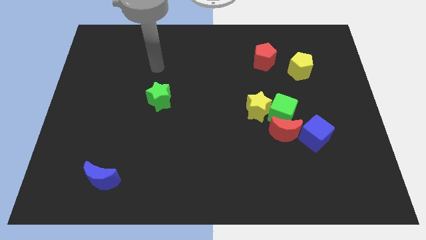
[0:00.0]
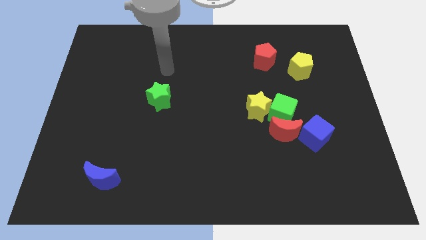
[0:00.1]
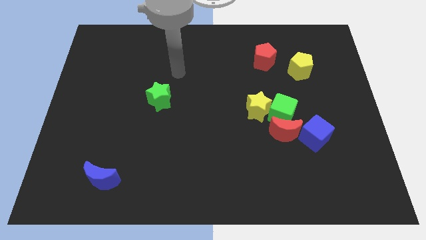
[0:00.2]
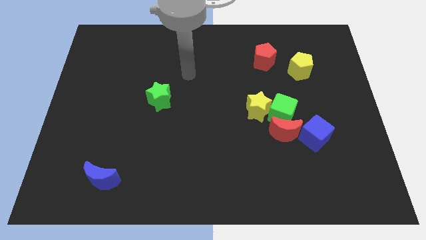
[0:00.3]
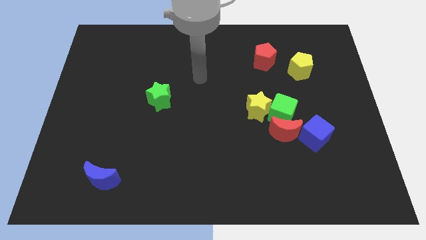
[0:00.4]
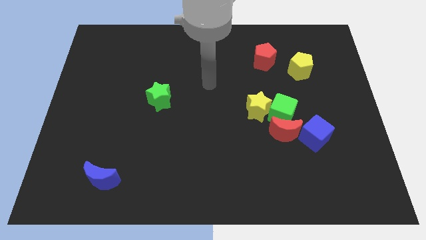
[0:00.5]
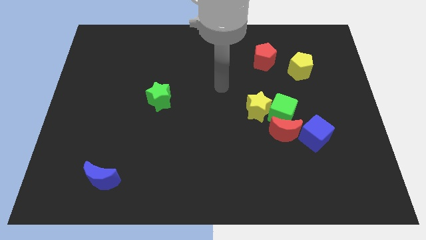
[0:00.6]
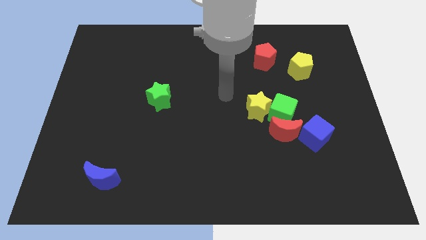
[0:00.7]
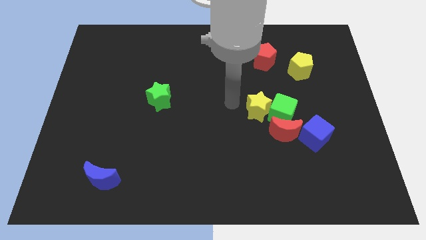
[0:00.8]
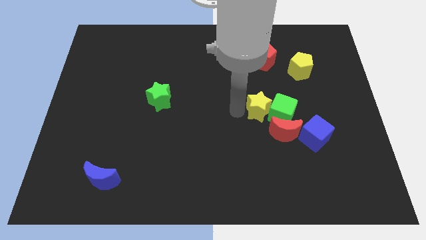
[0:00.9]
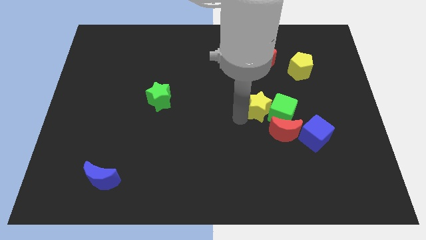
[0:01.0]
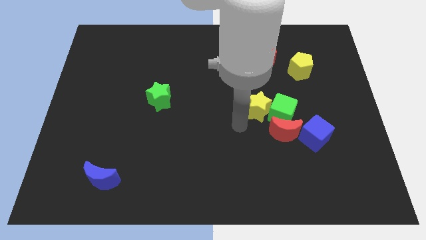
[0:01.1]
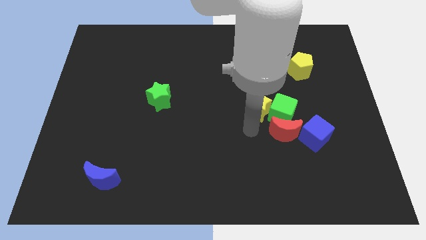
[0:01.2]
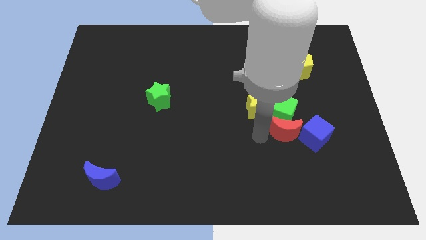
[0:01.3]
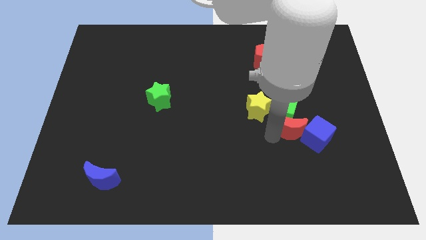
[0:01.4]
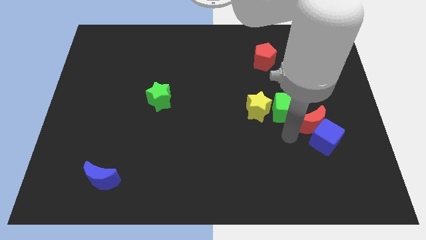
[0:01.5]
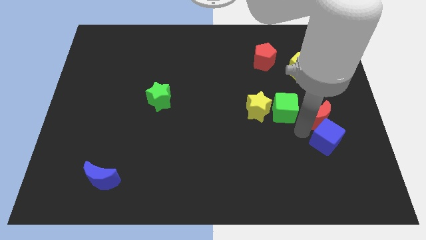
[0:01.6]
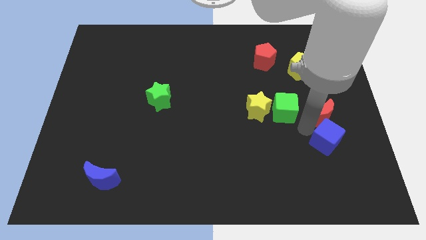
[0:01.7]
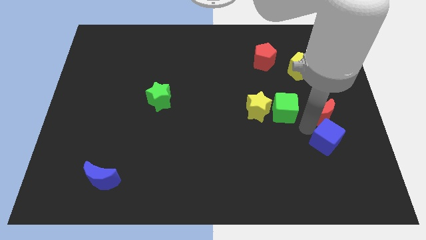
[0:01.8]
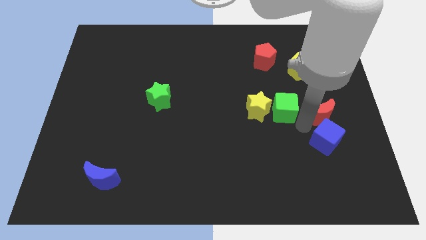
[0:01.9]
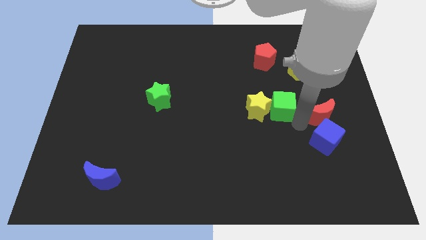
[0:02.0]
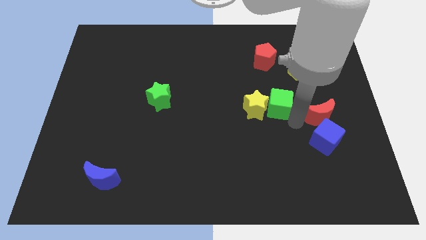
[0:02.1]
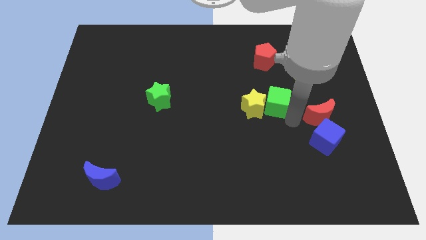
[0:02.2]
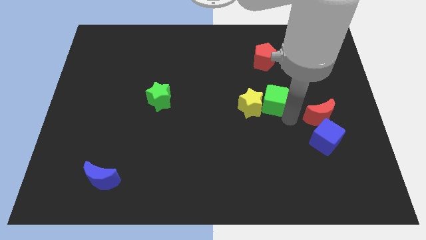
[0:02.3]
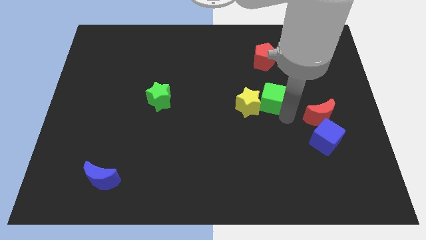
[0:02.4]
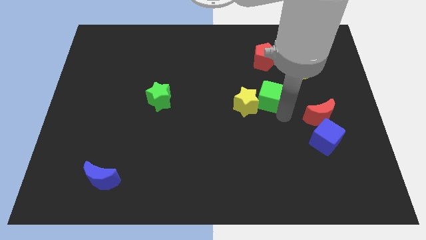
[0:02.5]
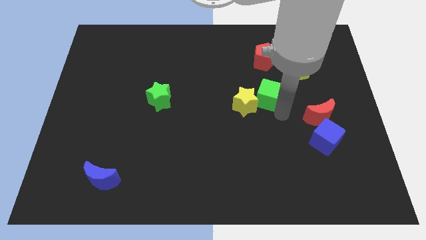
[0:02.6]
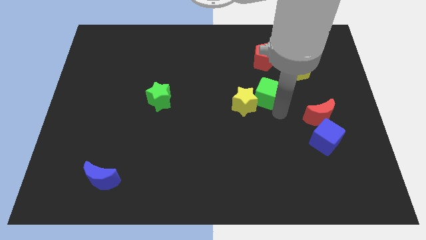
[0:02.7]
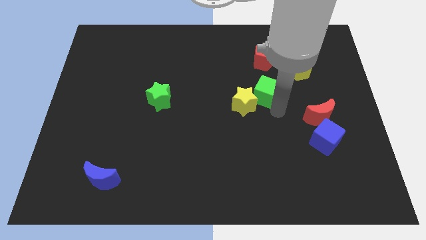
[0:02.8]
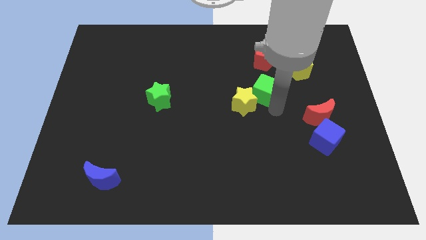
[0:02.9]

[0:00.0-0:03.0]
move the green cube away from the clump

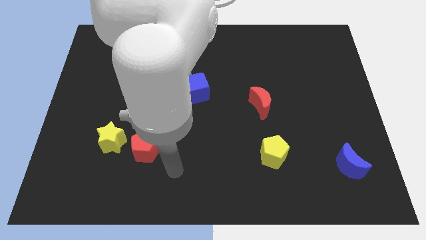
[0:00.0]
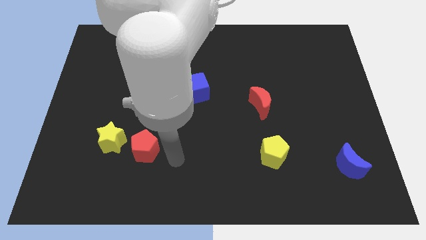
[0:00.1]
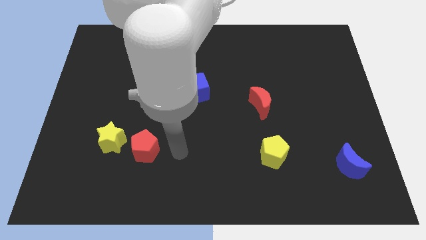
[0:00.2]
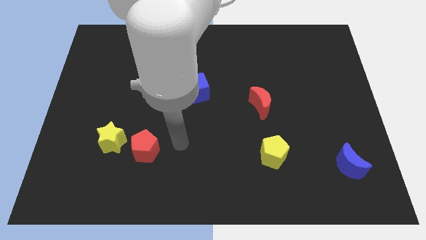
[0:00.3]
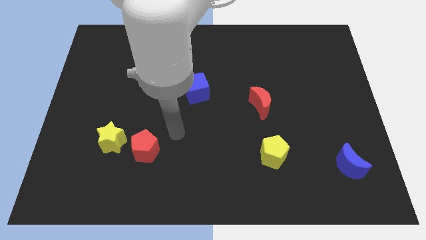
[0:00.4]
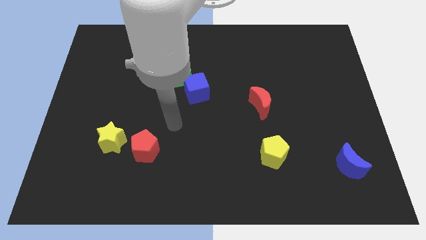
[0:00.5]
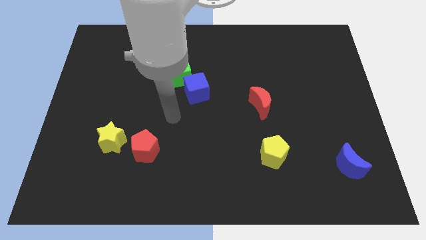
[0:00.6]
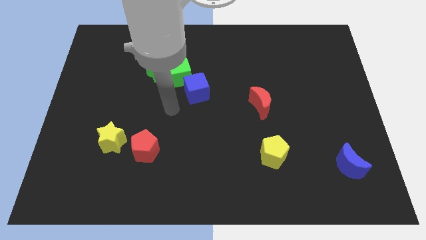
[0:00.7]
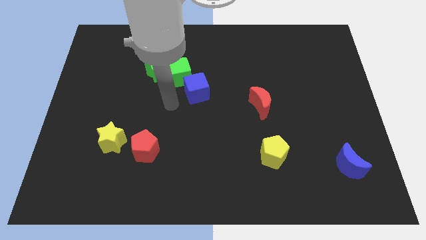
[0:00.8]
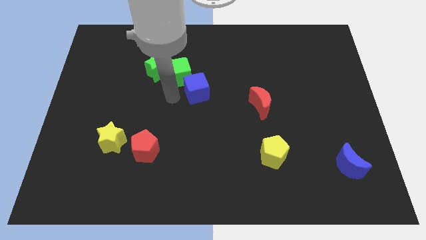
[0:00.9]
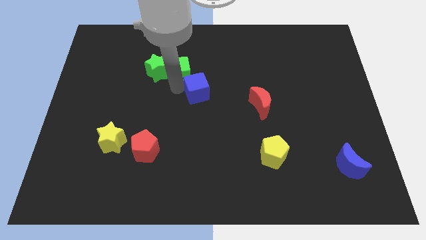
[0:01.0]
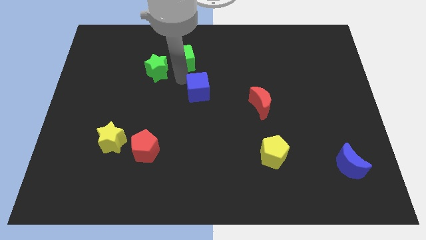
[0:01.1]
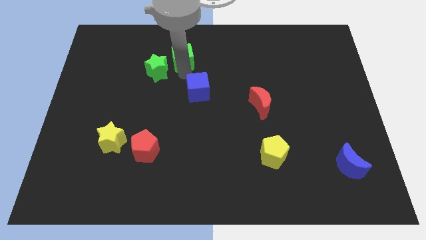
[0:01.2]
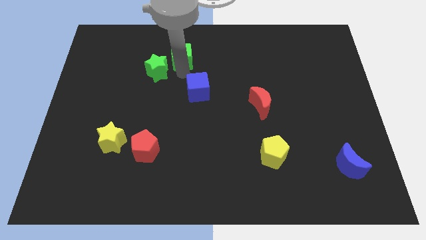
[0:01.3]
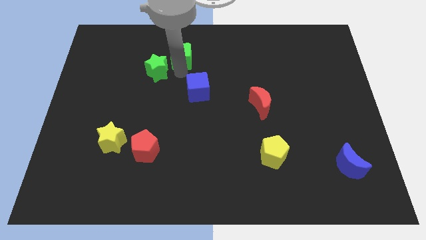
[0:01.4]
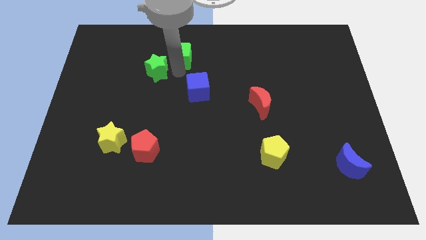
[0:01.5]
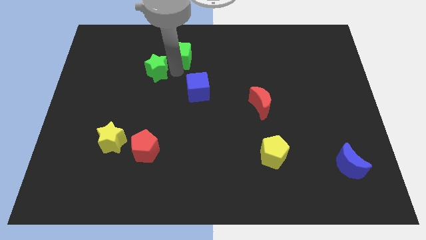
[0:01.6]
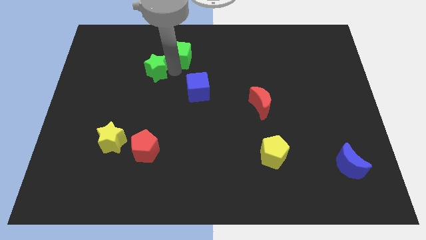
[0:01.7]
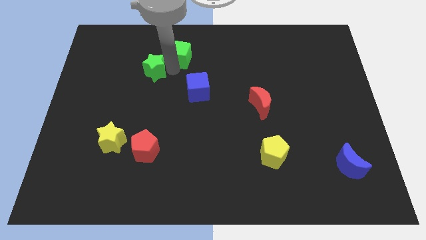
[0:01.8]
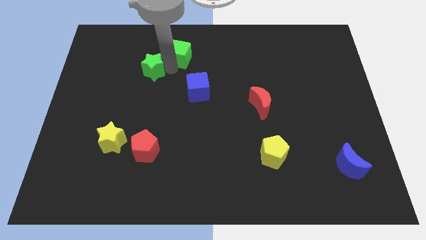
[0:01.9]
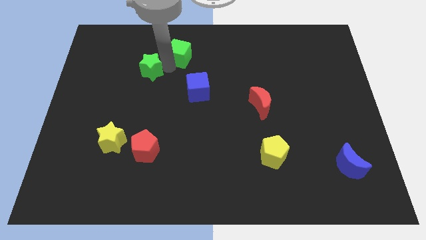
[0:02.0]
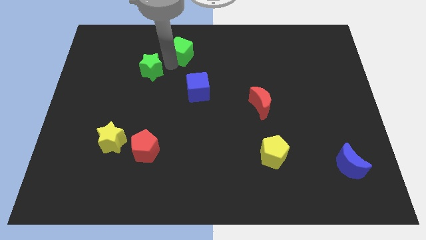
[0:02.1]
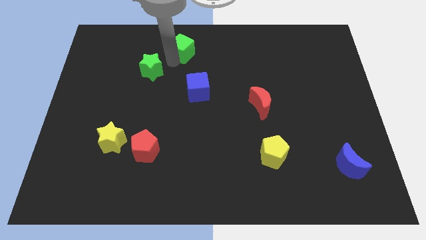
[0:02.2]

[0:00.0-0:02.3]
pull the green star apart from the green cube

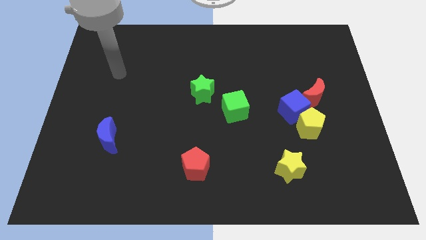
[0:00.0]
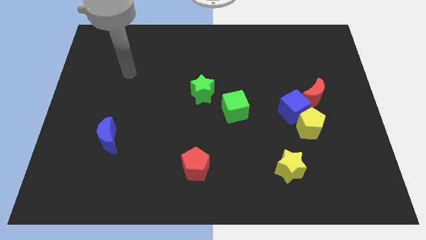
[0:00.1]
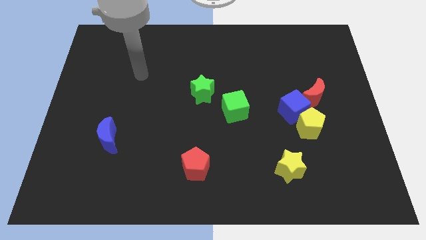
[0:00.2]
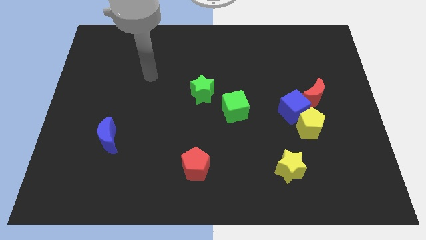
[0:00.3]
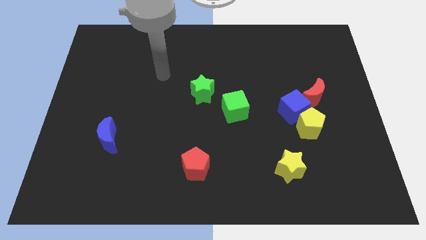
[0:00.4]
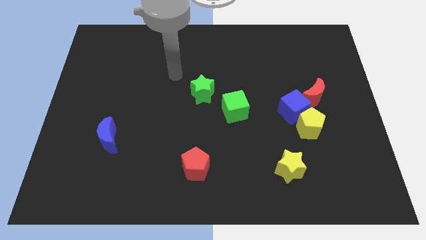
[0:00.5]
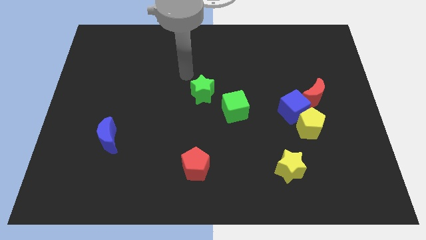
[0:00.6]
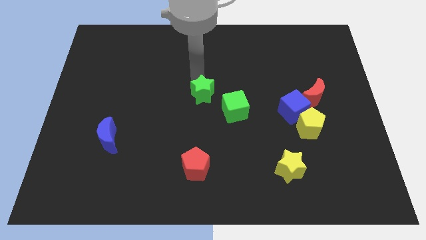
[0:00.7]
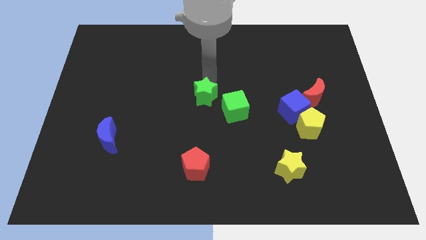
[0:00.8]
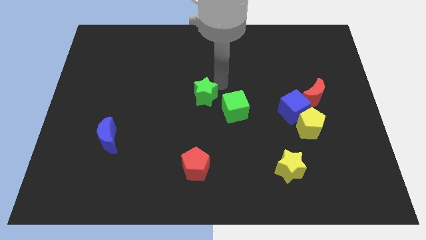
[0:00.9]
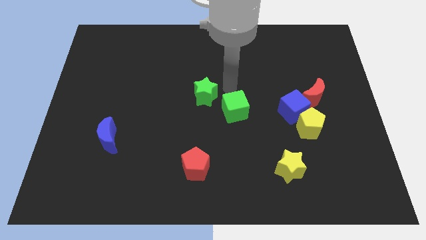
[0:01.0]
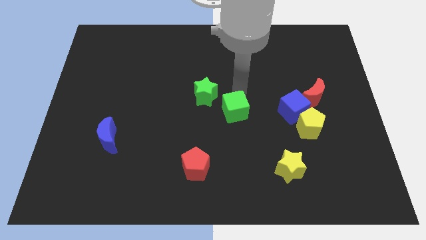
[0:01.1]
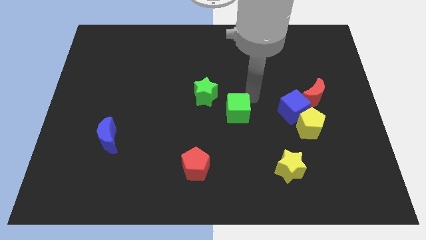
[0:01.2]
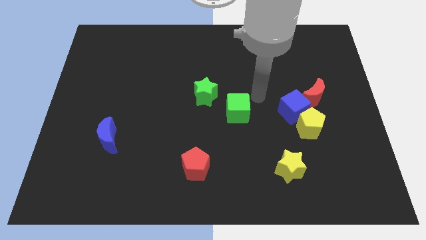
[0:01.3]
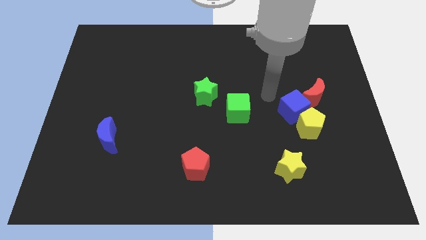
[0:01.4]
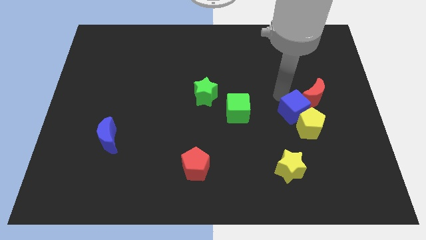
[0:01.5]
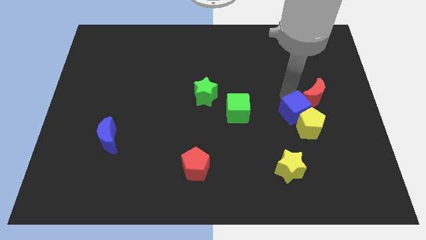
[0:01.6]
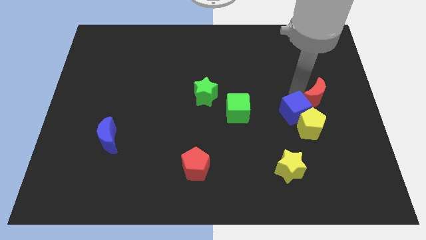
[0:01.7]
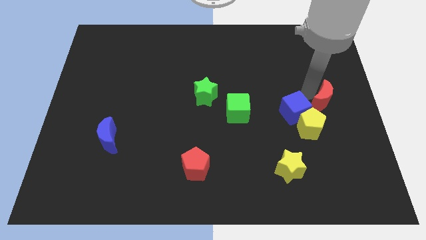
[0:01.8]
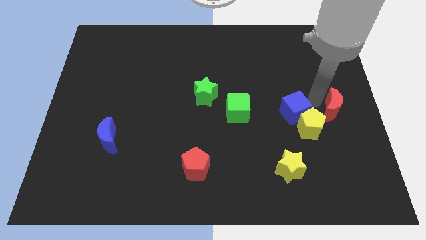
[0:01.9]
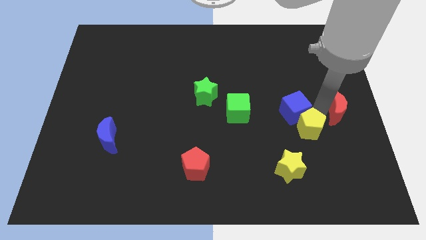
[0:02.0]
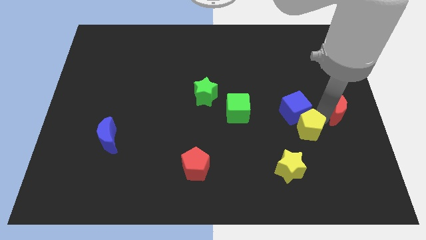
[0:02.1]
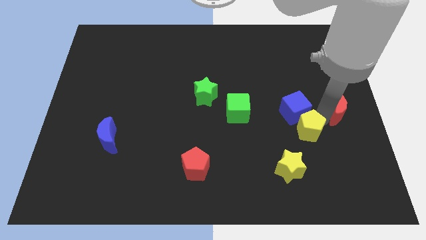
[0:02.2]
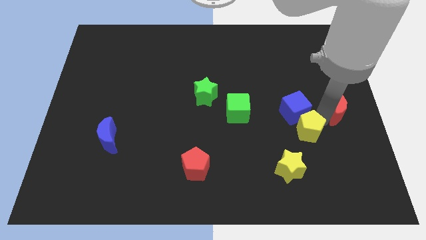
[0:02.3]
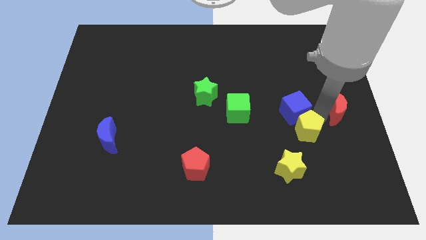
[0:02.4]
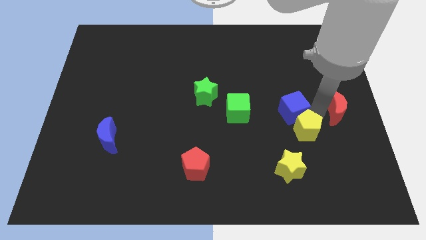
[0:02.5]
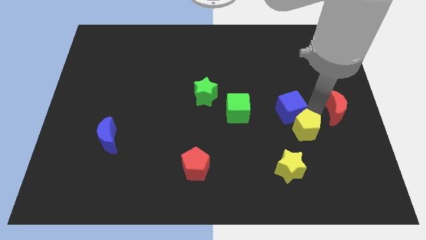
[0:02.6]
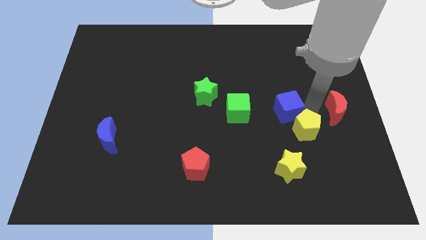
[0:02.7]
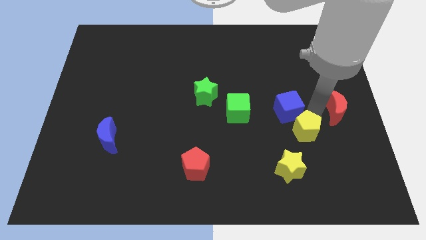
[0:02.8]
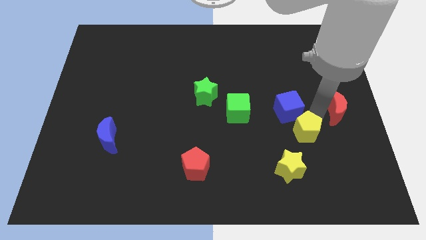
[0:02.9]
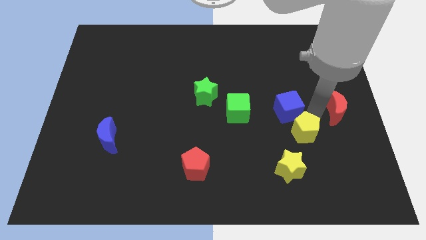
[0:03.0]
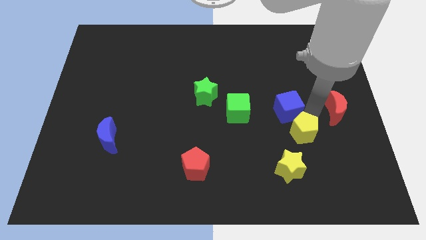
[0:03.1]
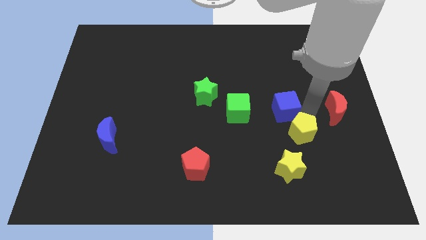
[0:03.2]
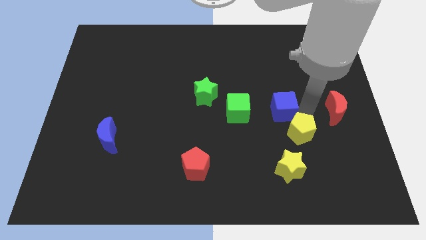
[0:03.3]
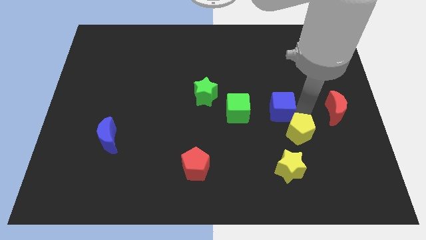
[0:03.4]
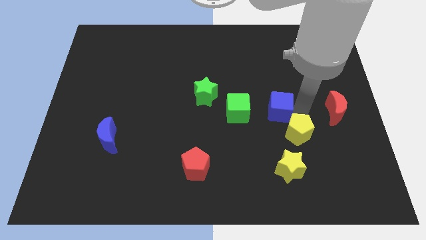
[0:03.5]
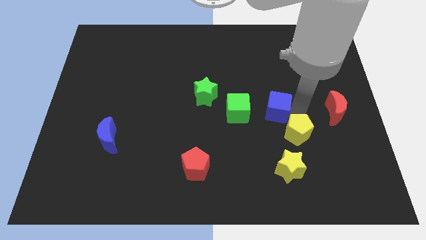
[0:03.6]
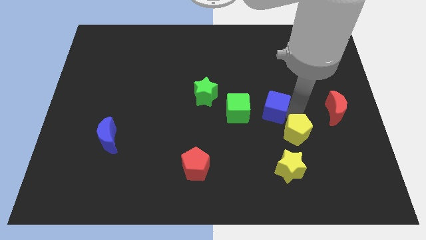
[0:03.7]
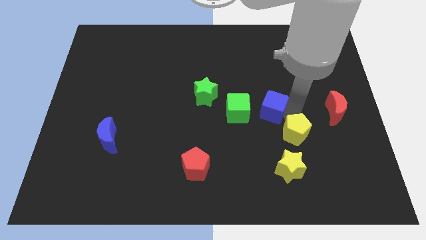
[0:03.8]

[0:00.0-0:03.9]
pull the blue cube apart from the yellow pentagon and red moon

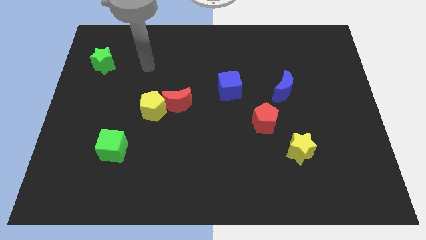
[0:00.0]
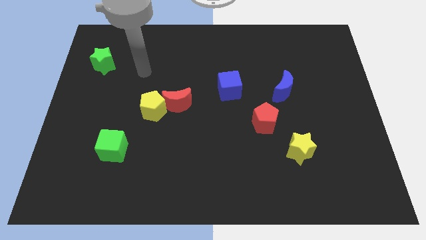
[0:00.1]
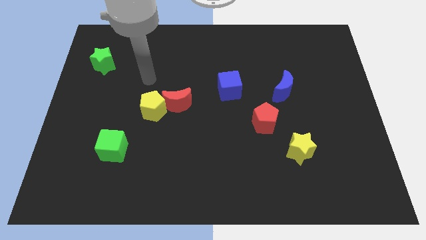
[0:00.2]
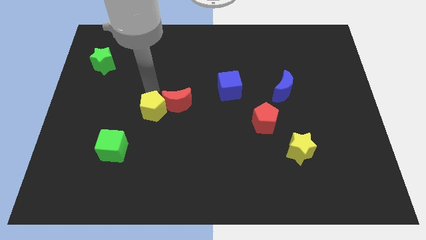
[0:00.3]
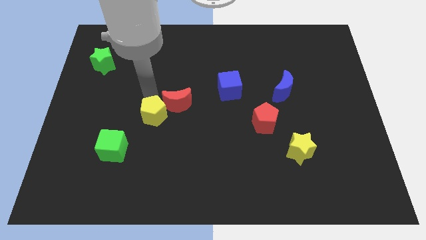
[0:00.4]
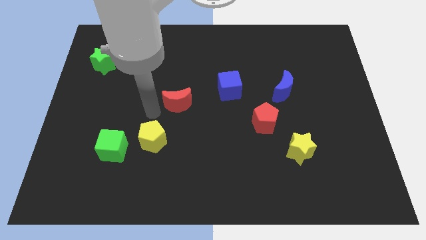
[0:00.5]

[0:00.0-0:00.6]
move the red moon away from the yellow pentagon
